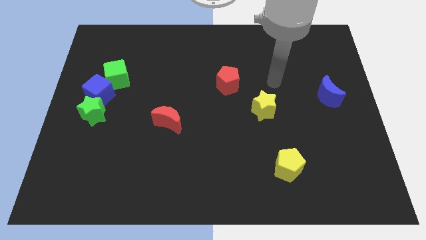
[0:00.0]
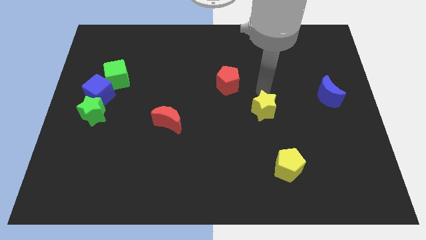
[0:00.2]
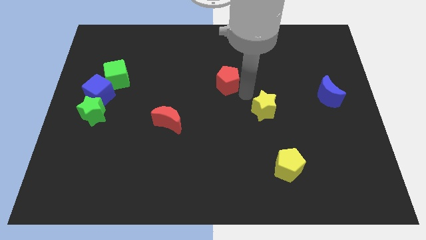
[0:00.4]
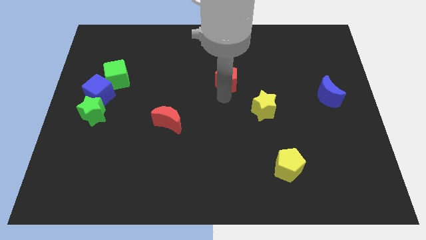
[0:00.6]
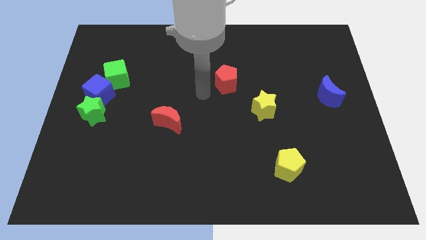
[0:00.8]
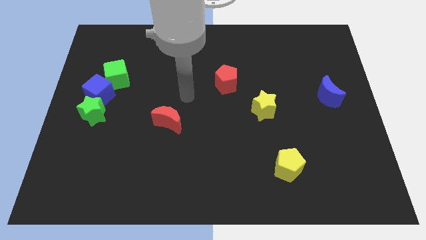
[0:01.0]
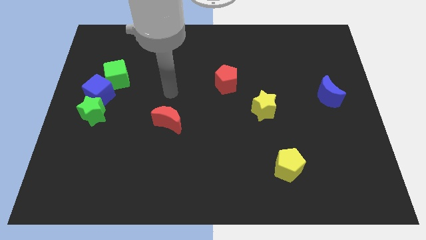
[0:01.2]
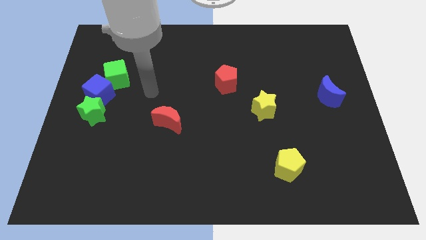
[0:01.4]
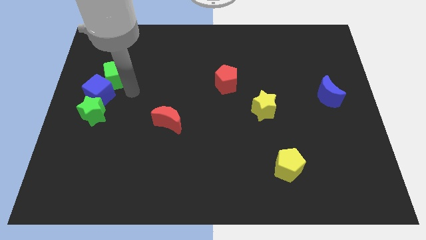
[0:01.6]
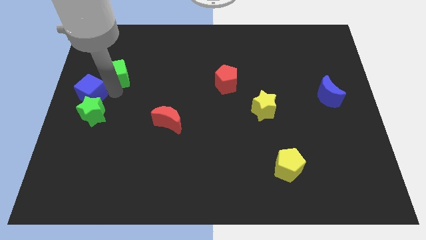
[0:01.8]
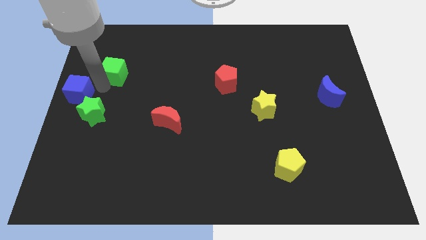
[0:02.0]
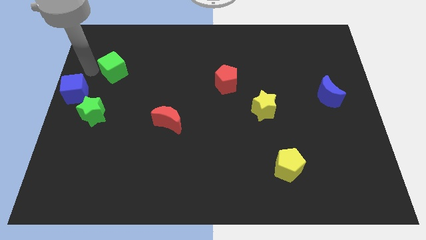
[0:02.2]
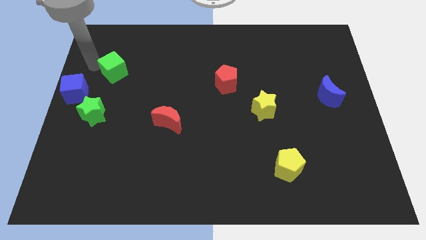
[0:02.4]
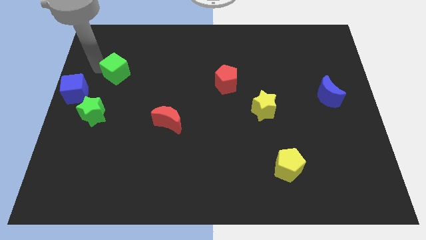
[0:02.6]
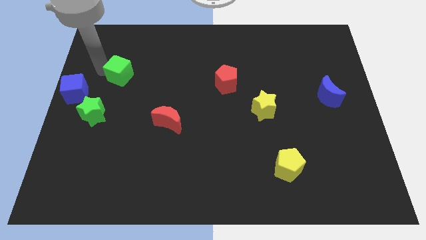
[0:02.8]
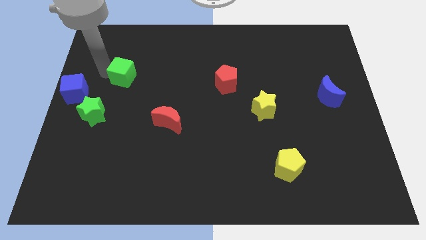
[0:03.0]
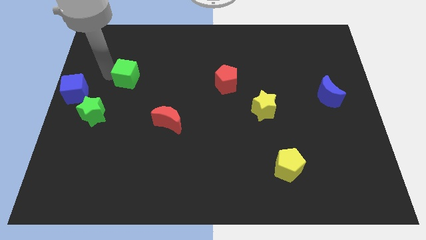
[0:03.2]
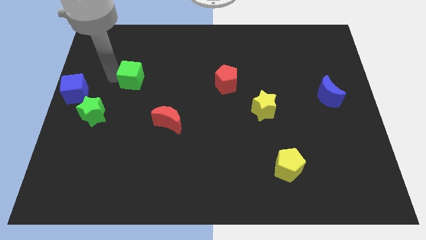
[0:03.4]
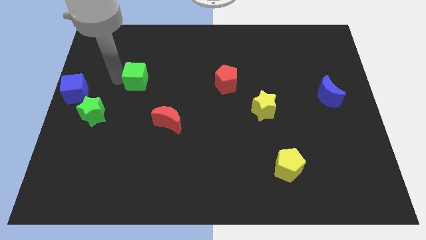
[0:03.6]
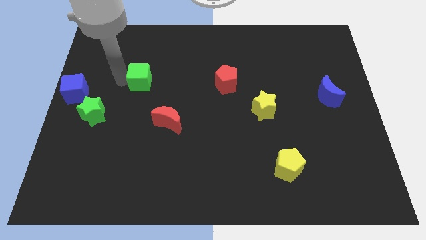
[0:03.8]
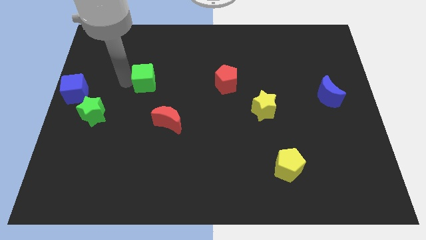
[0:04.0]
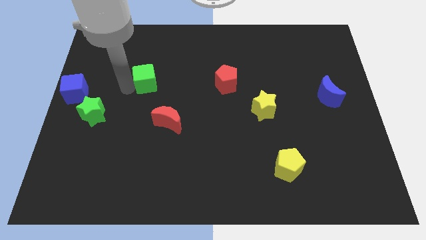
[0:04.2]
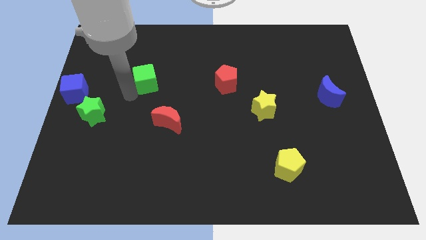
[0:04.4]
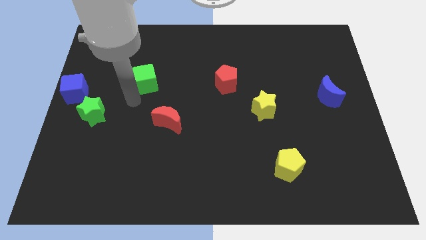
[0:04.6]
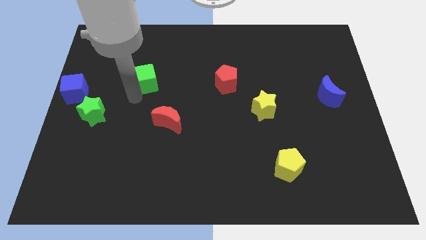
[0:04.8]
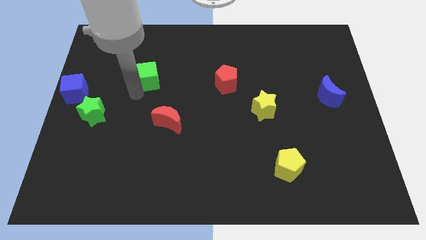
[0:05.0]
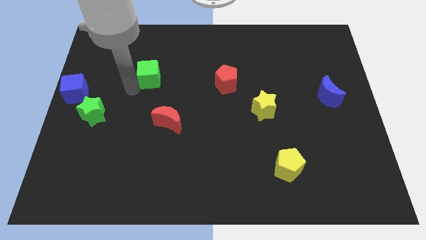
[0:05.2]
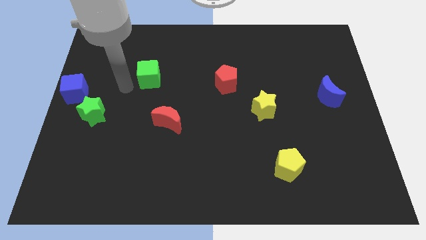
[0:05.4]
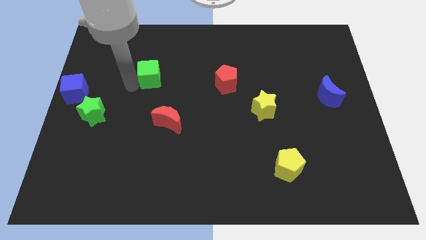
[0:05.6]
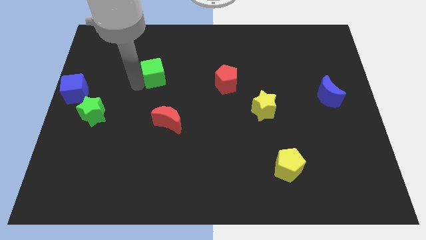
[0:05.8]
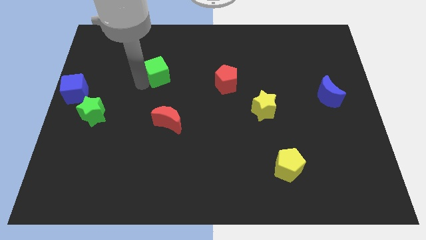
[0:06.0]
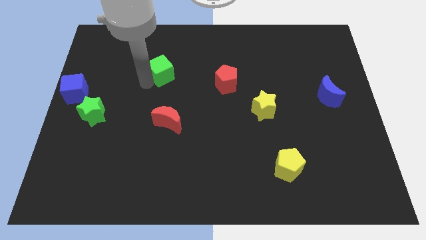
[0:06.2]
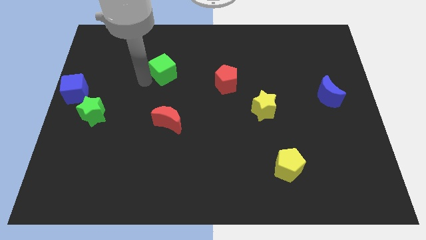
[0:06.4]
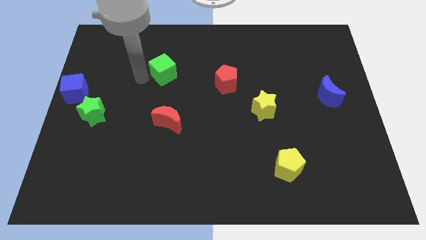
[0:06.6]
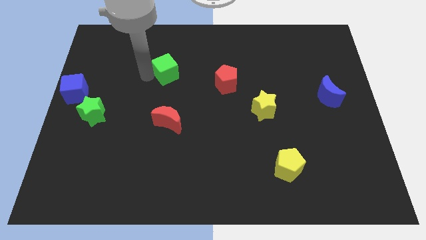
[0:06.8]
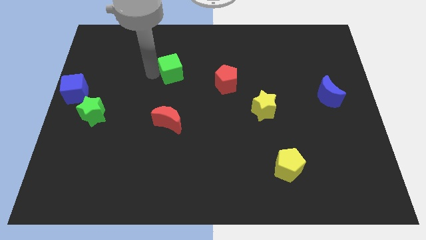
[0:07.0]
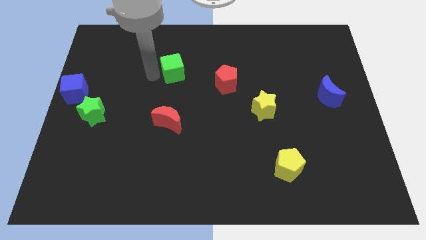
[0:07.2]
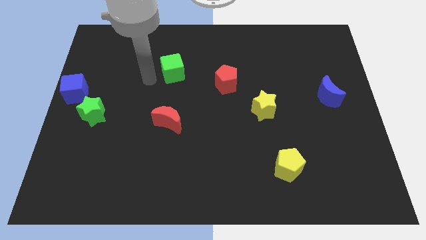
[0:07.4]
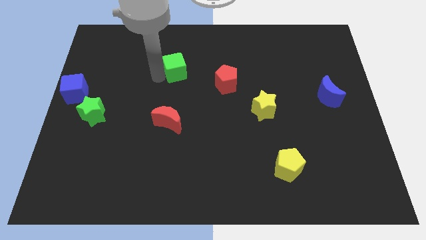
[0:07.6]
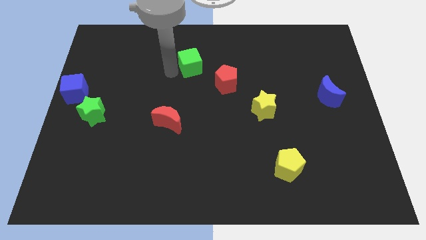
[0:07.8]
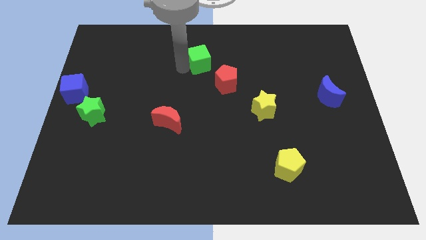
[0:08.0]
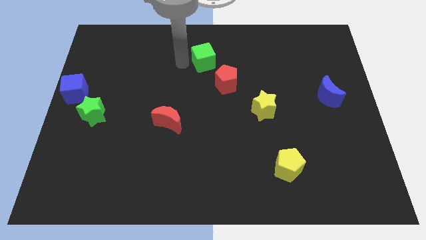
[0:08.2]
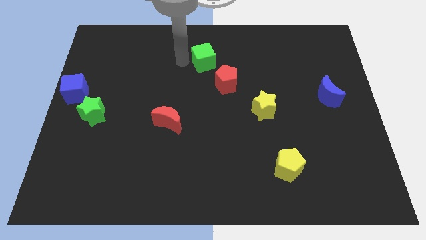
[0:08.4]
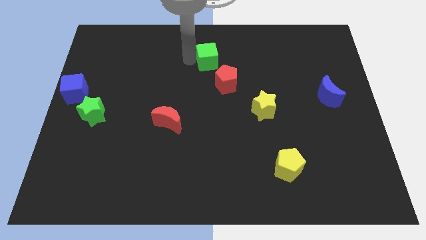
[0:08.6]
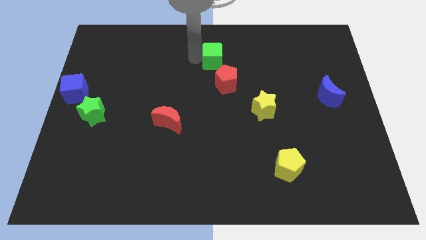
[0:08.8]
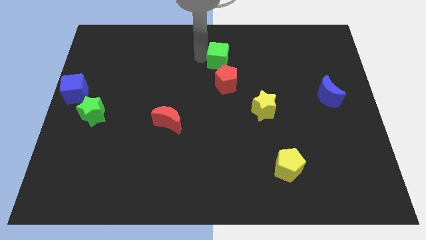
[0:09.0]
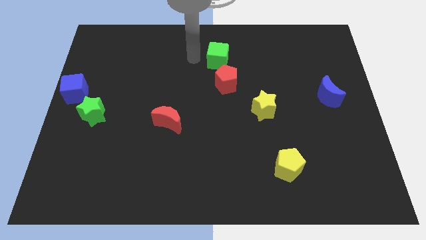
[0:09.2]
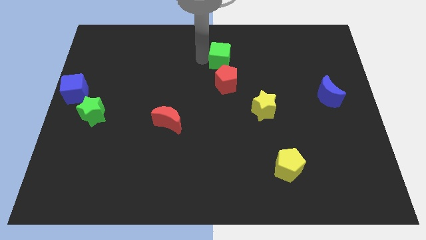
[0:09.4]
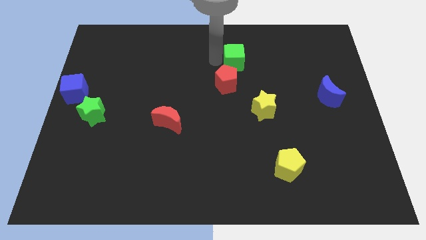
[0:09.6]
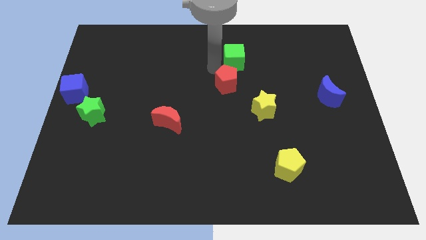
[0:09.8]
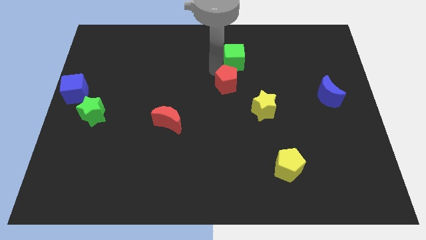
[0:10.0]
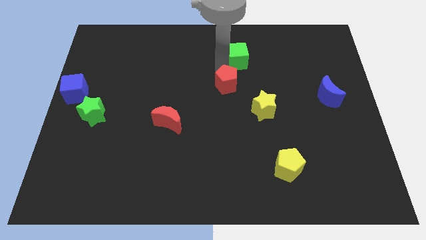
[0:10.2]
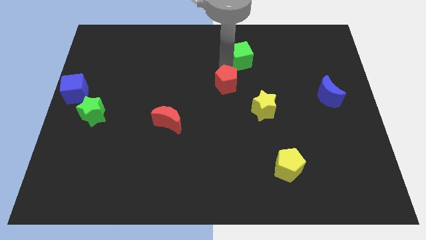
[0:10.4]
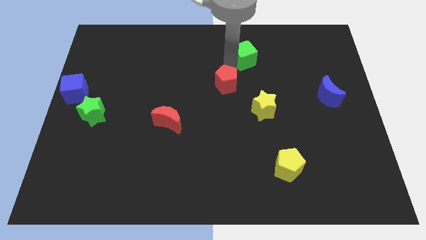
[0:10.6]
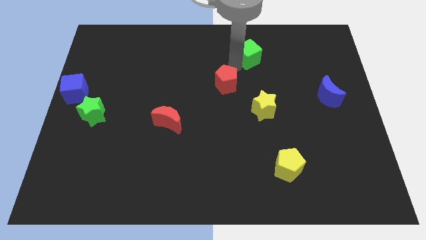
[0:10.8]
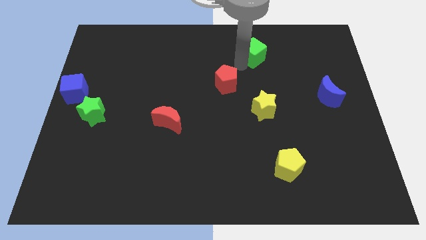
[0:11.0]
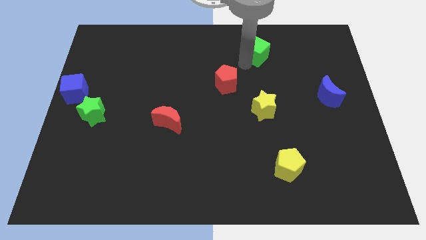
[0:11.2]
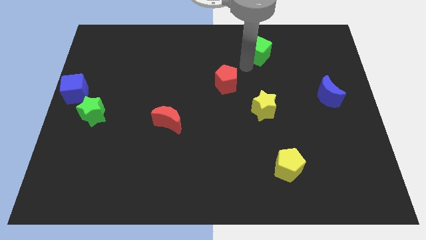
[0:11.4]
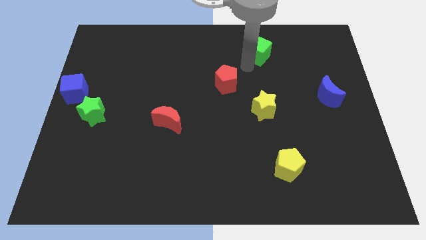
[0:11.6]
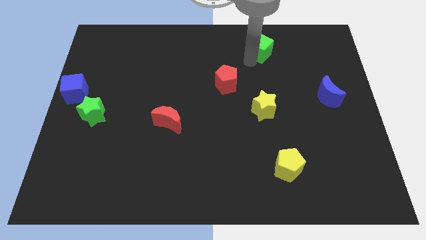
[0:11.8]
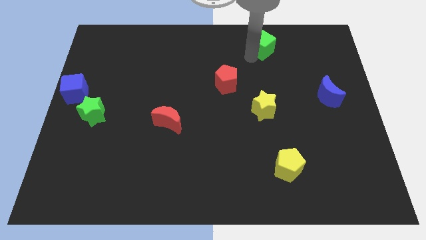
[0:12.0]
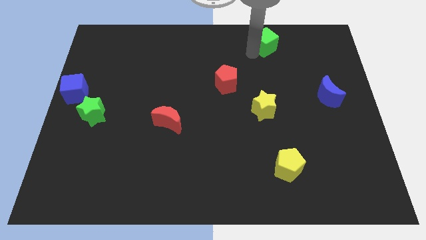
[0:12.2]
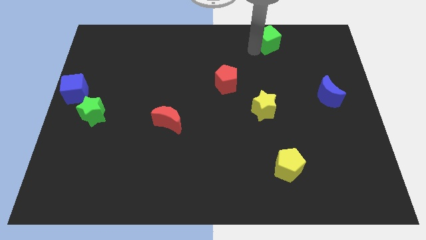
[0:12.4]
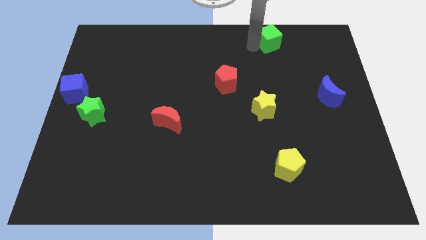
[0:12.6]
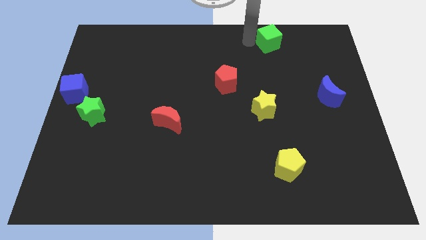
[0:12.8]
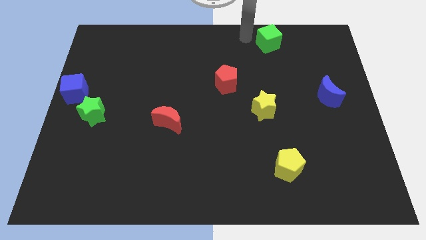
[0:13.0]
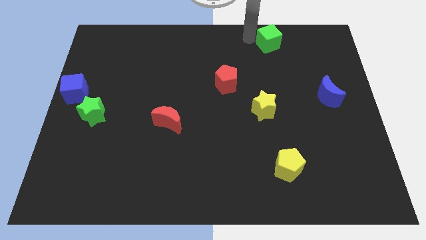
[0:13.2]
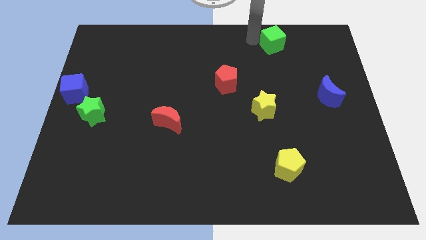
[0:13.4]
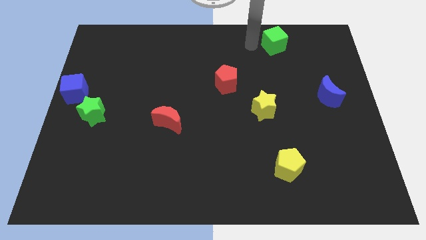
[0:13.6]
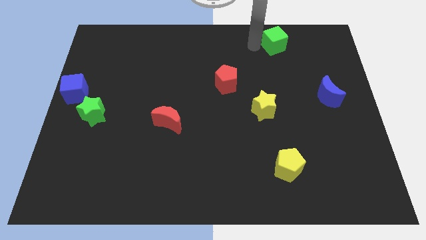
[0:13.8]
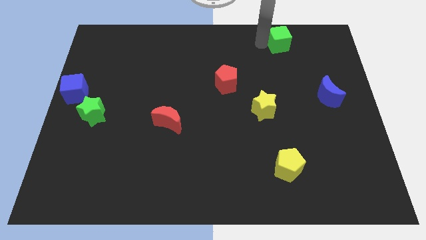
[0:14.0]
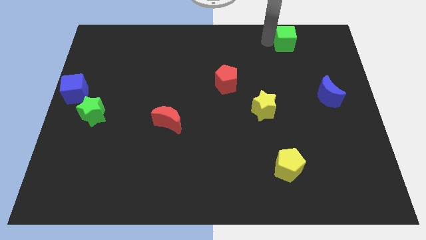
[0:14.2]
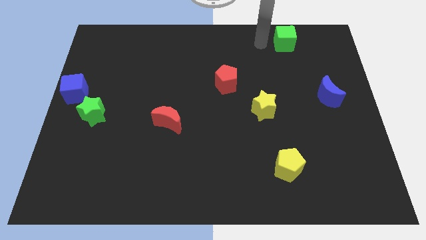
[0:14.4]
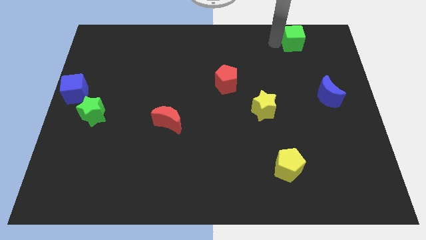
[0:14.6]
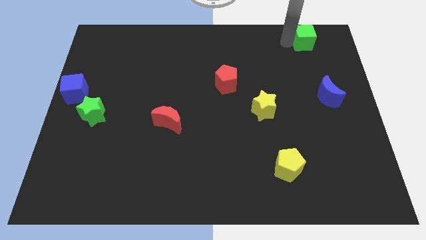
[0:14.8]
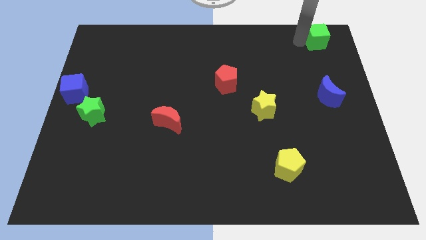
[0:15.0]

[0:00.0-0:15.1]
move the green cube to the top right corner
